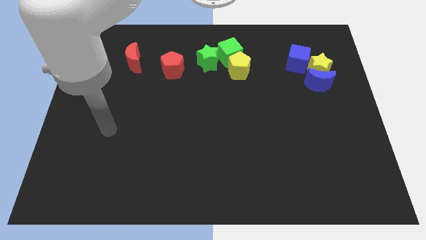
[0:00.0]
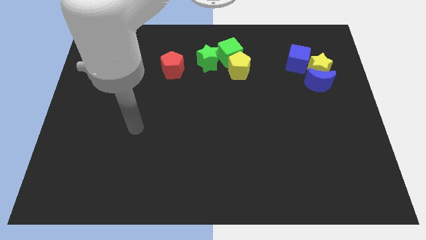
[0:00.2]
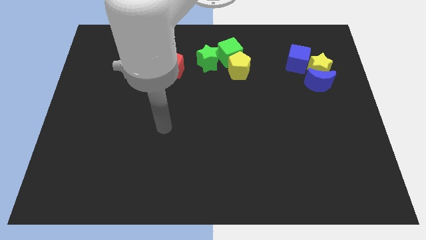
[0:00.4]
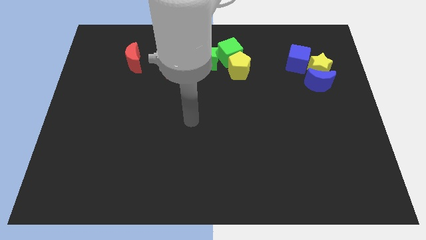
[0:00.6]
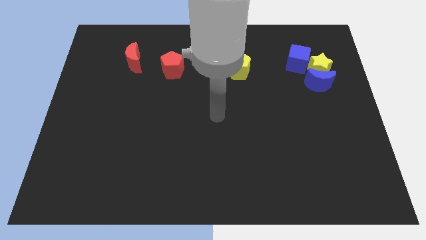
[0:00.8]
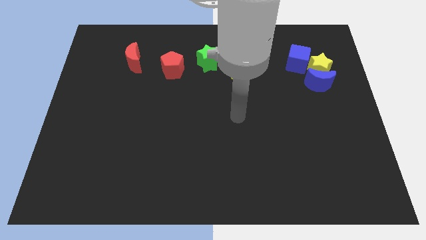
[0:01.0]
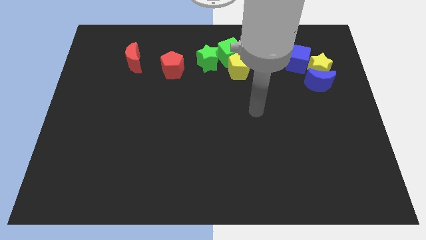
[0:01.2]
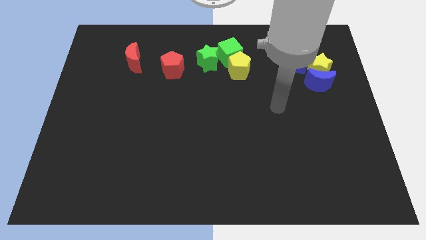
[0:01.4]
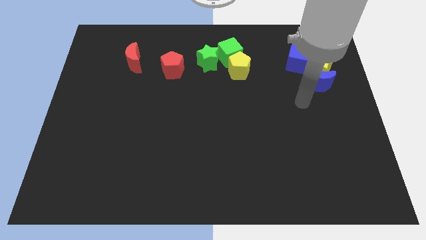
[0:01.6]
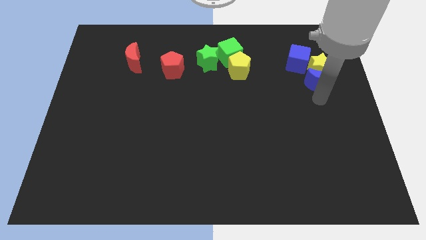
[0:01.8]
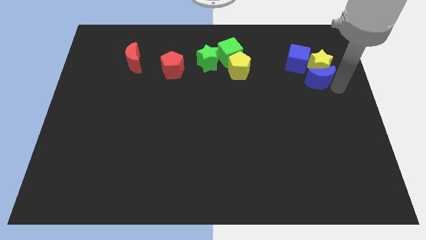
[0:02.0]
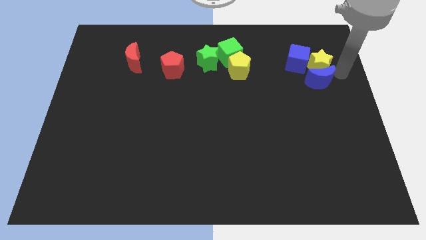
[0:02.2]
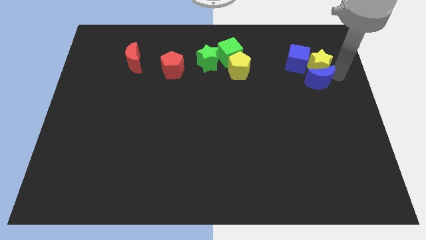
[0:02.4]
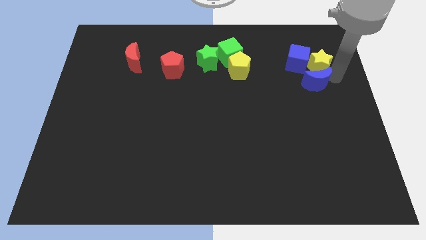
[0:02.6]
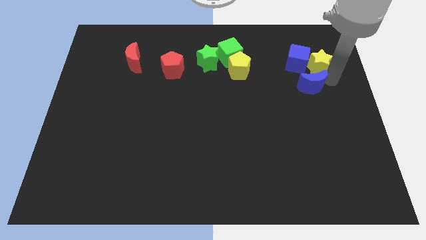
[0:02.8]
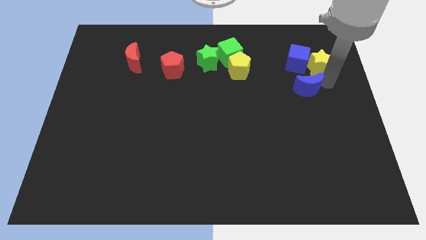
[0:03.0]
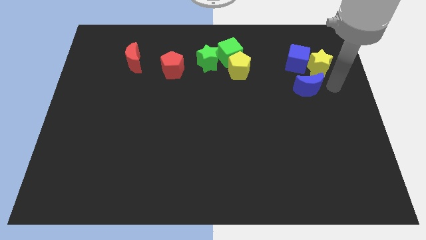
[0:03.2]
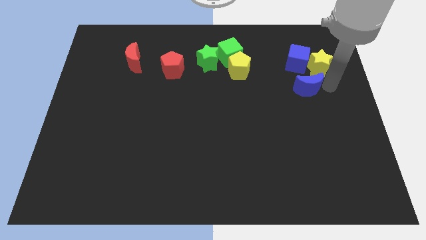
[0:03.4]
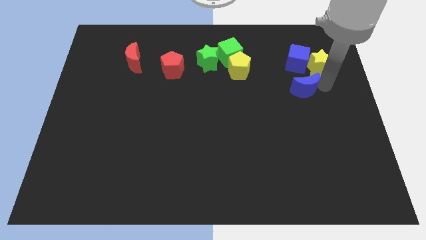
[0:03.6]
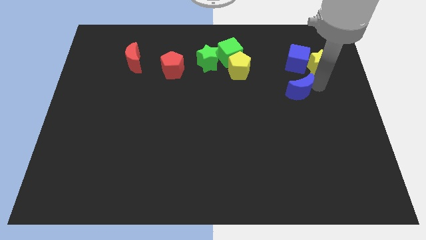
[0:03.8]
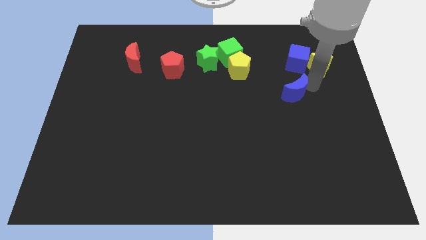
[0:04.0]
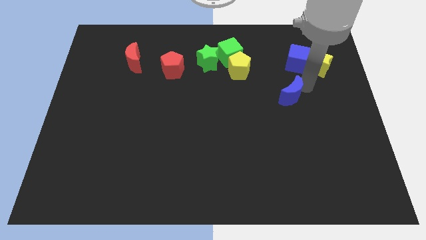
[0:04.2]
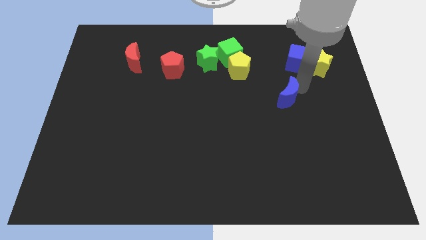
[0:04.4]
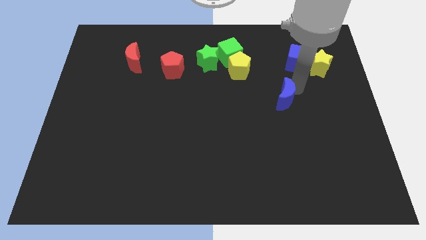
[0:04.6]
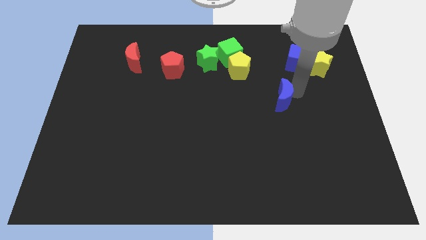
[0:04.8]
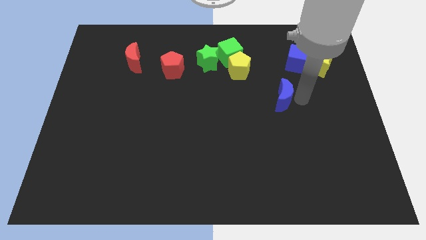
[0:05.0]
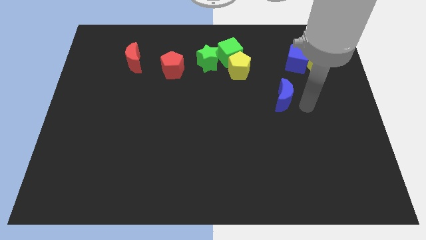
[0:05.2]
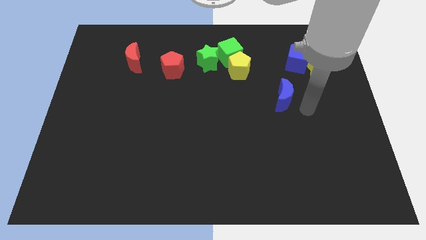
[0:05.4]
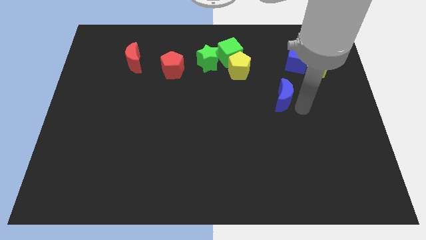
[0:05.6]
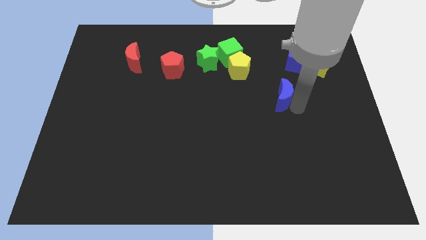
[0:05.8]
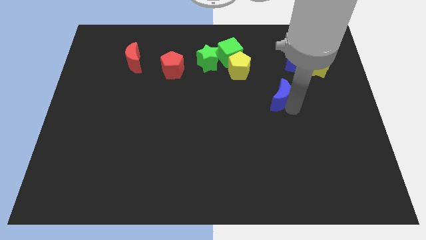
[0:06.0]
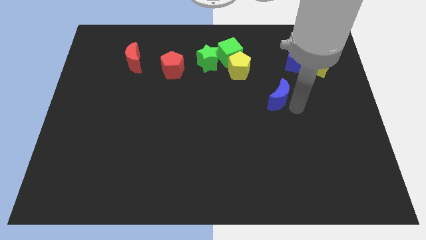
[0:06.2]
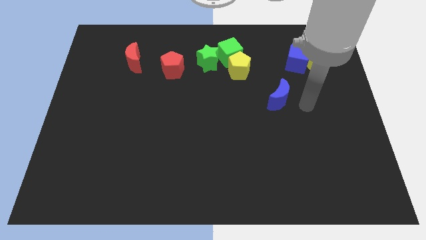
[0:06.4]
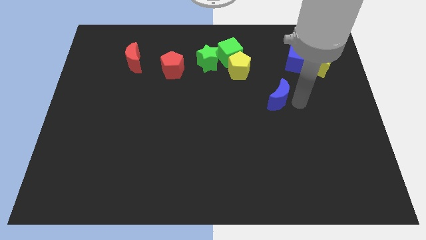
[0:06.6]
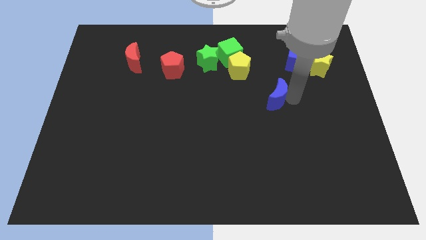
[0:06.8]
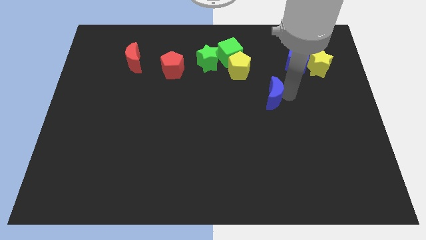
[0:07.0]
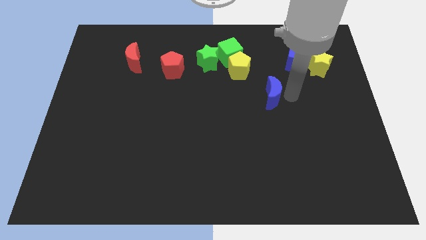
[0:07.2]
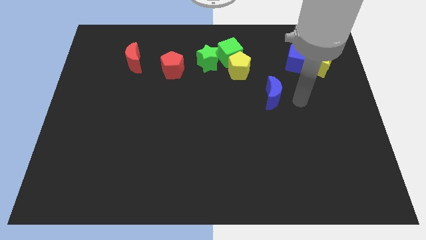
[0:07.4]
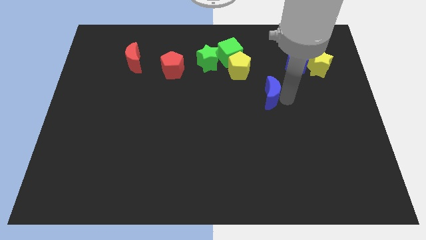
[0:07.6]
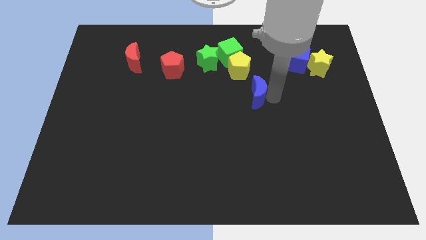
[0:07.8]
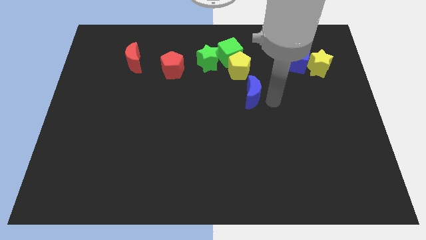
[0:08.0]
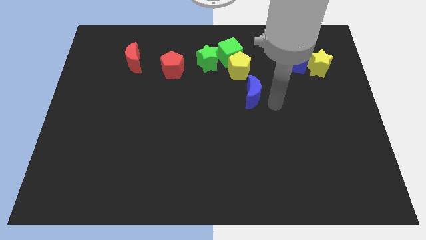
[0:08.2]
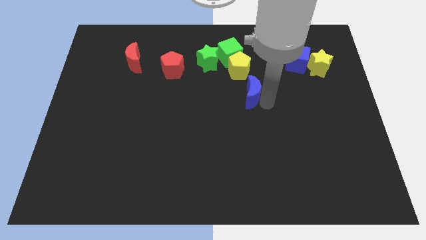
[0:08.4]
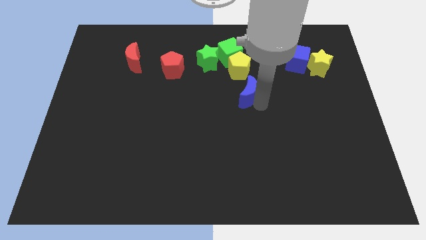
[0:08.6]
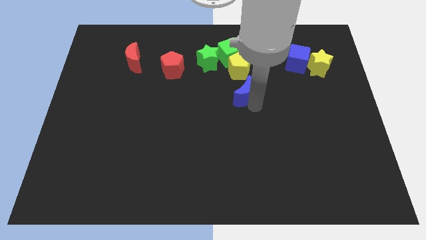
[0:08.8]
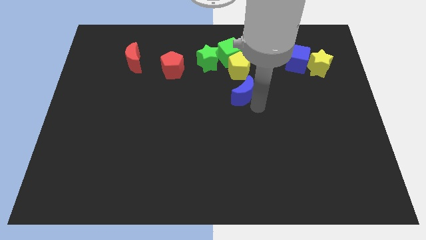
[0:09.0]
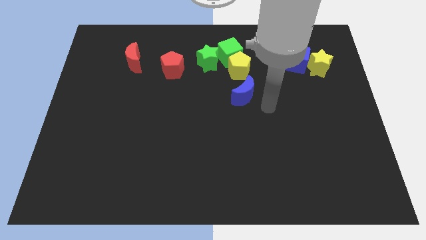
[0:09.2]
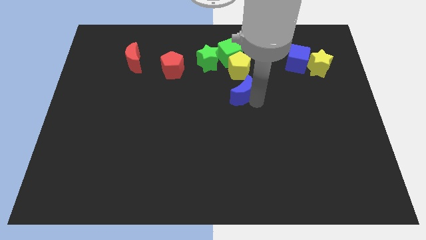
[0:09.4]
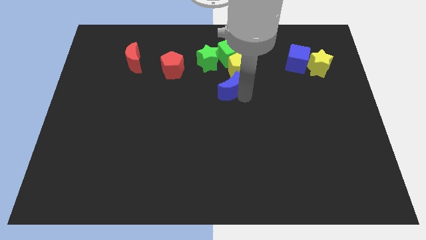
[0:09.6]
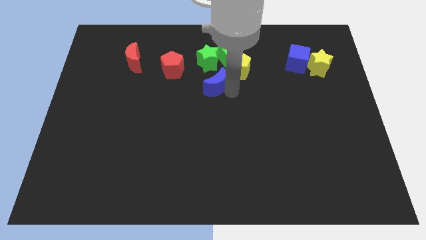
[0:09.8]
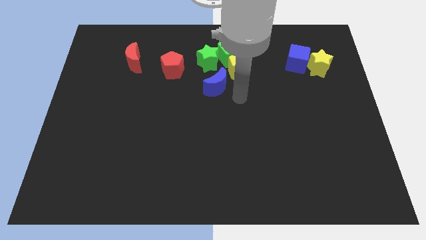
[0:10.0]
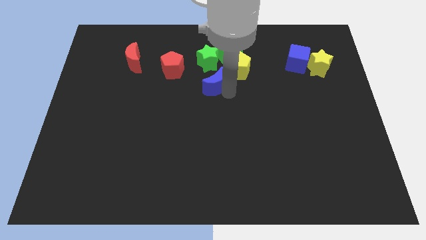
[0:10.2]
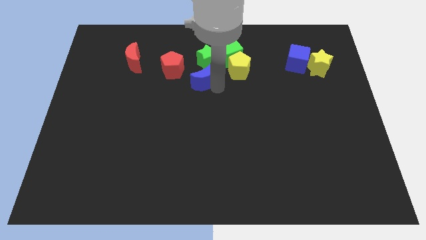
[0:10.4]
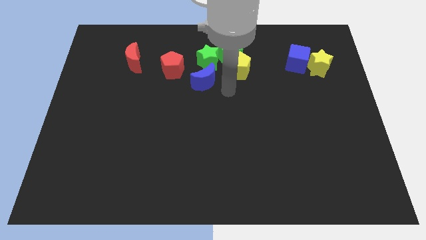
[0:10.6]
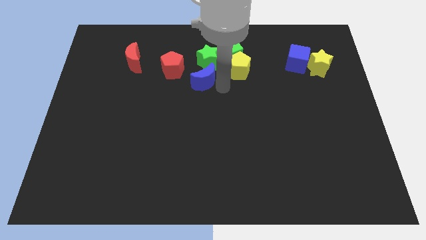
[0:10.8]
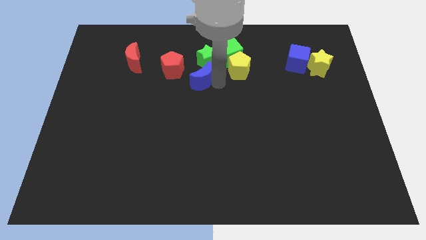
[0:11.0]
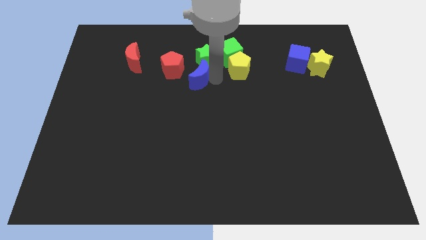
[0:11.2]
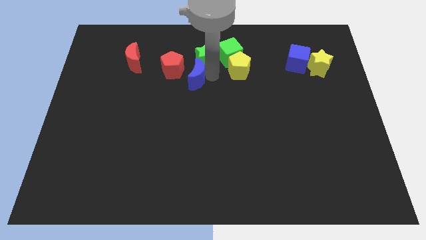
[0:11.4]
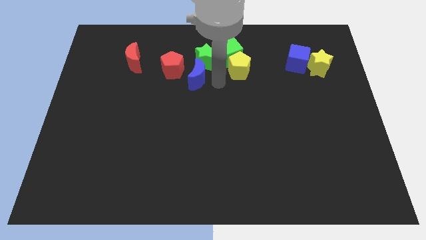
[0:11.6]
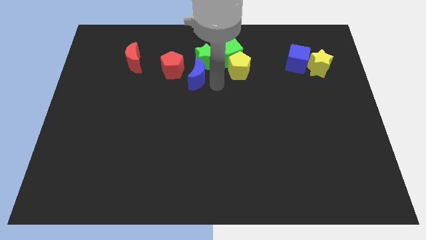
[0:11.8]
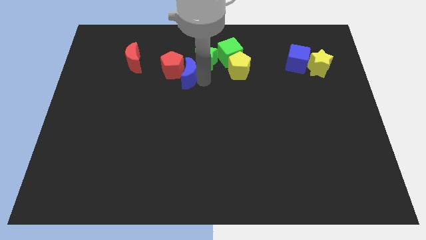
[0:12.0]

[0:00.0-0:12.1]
move the blue moon next to the red pentagon
